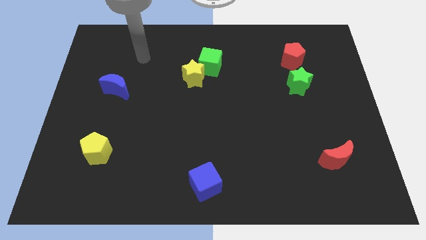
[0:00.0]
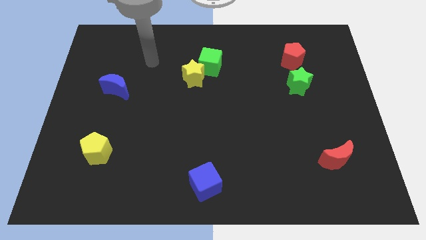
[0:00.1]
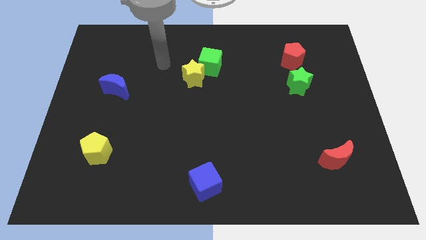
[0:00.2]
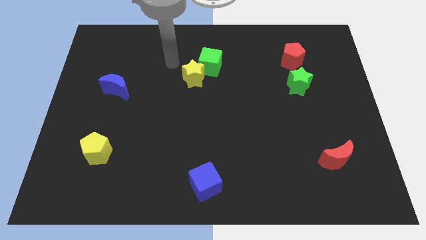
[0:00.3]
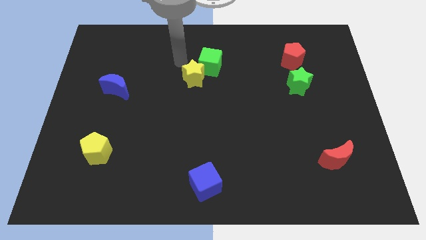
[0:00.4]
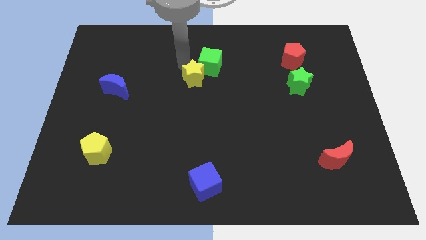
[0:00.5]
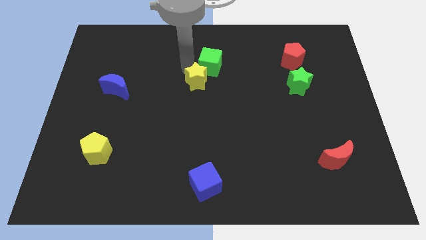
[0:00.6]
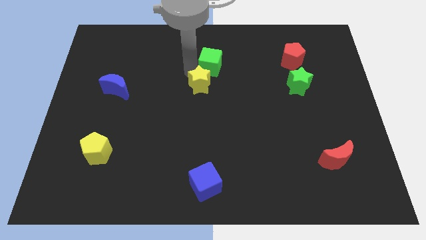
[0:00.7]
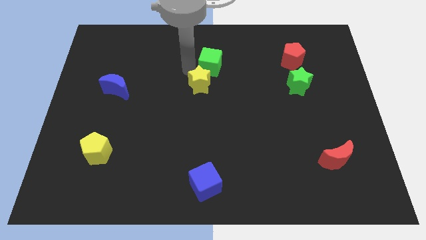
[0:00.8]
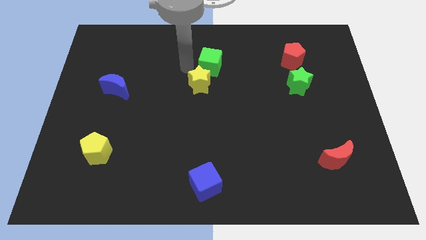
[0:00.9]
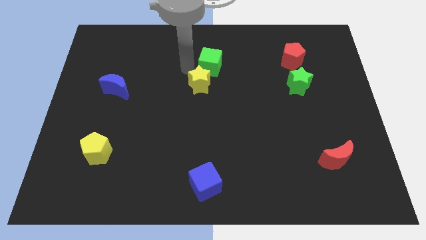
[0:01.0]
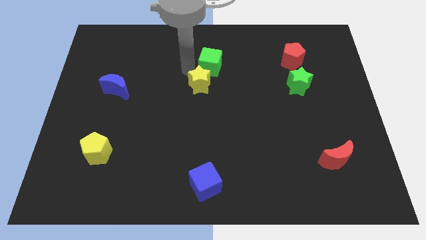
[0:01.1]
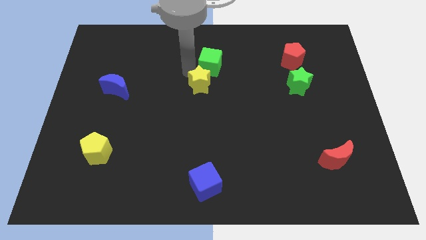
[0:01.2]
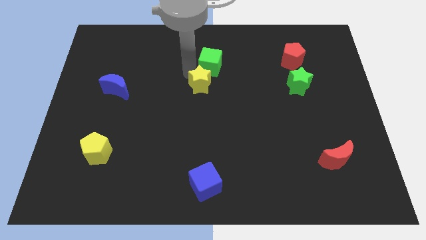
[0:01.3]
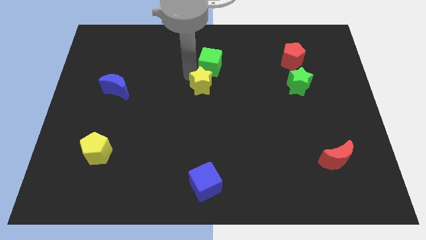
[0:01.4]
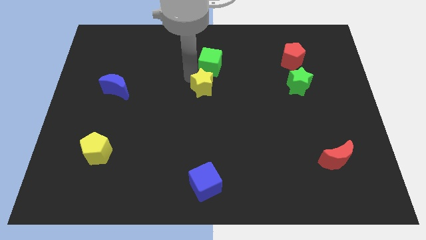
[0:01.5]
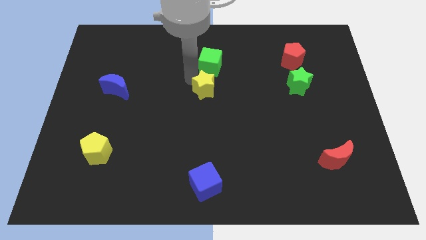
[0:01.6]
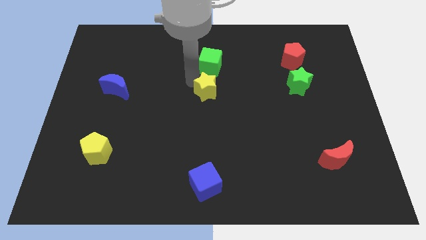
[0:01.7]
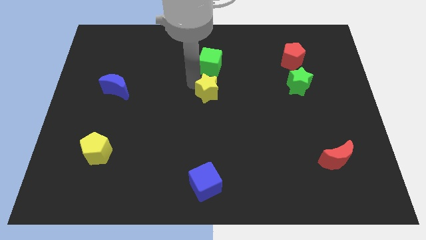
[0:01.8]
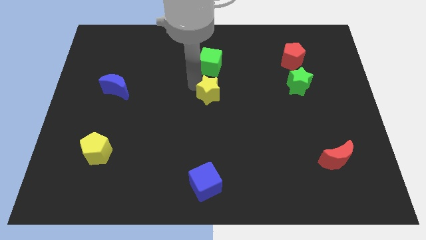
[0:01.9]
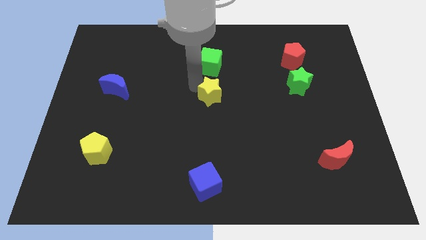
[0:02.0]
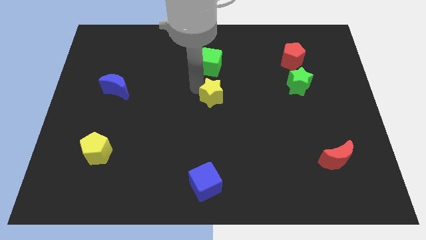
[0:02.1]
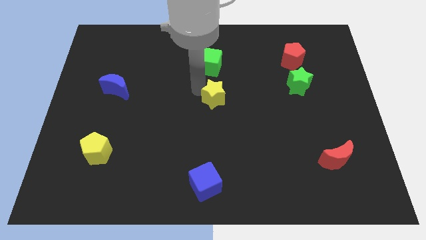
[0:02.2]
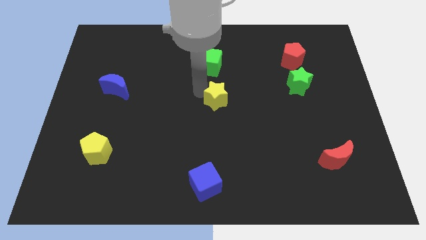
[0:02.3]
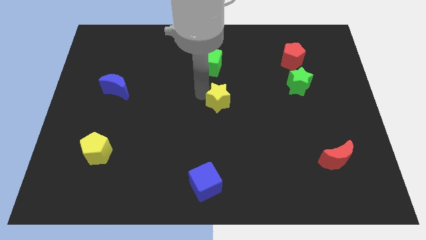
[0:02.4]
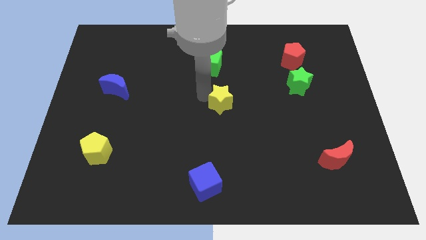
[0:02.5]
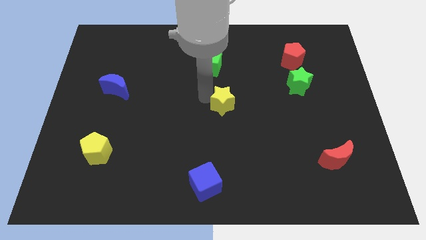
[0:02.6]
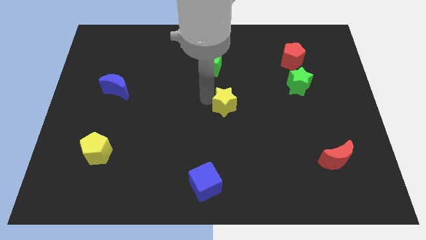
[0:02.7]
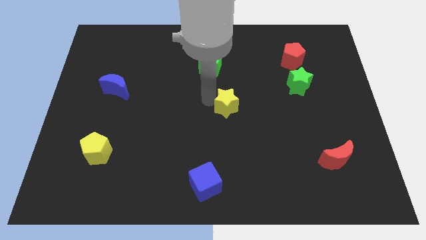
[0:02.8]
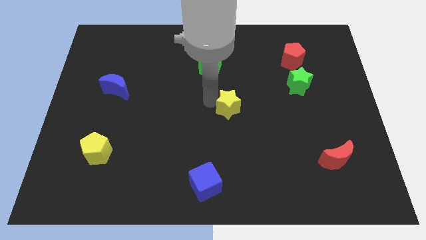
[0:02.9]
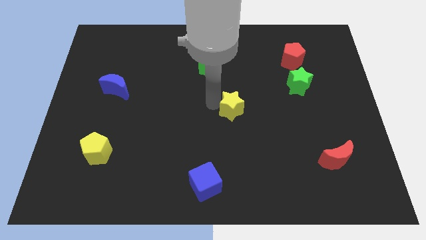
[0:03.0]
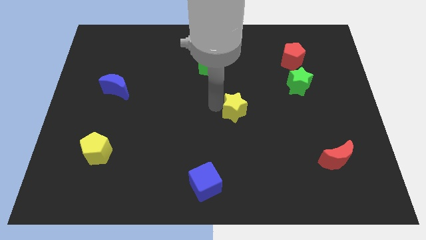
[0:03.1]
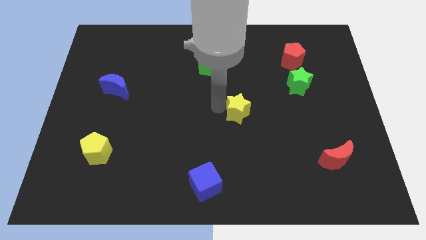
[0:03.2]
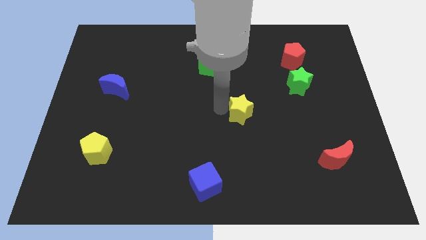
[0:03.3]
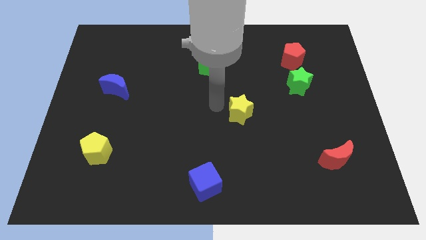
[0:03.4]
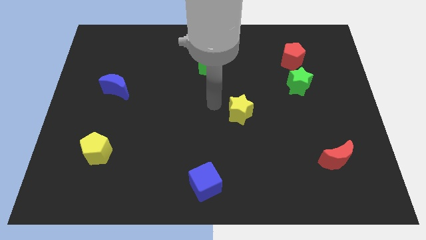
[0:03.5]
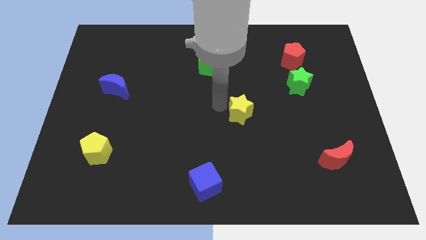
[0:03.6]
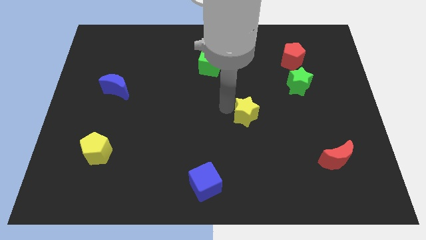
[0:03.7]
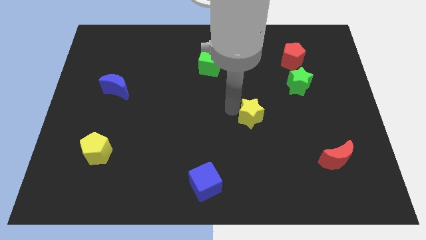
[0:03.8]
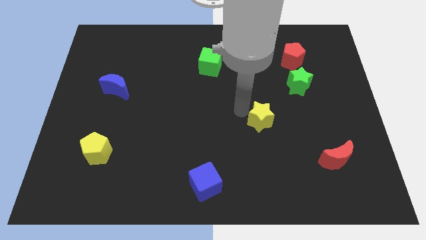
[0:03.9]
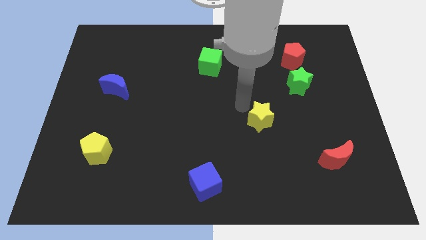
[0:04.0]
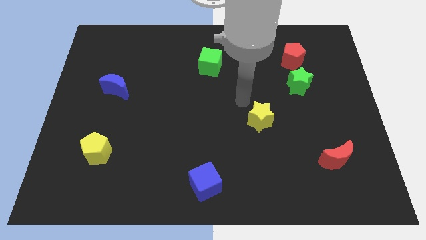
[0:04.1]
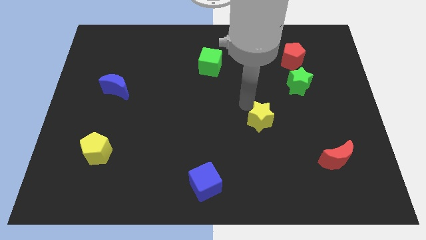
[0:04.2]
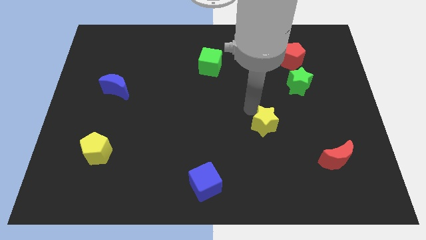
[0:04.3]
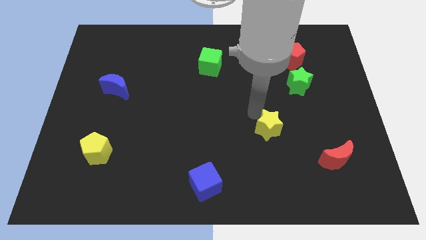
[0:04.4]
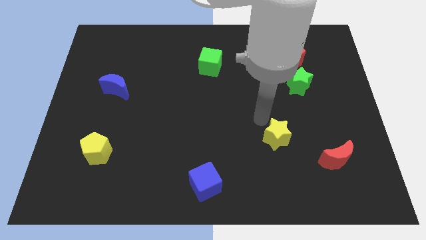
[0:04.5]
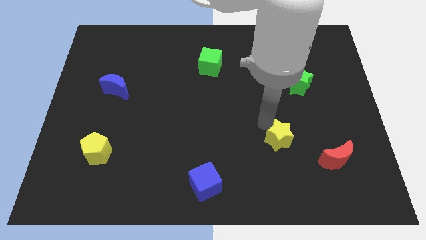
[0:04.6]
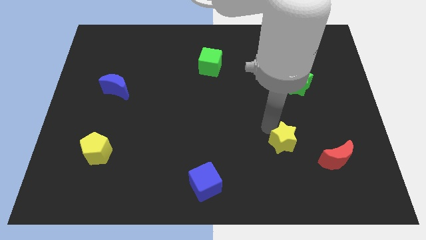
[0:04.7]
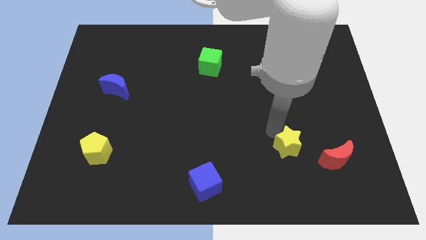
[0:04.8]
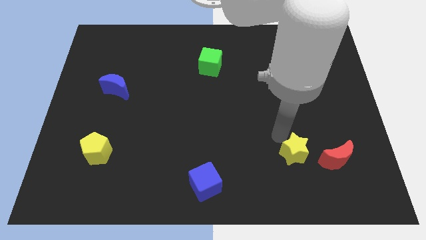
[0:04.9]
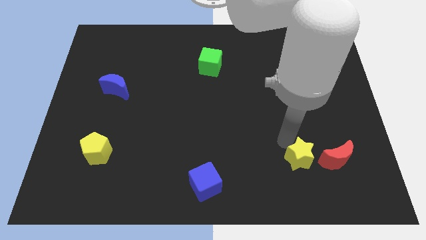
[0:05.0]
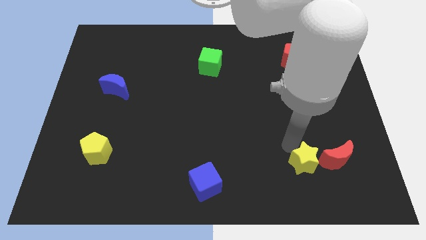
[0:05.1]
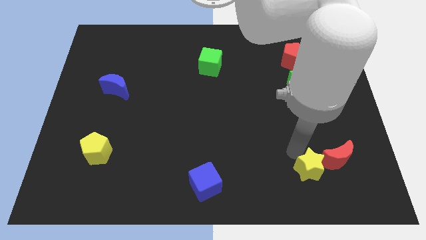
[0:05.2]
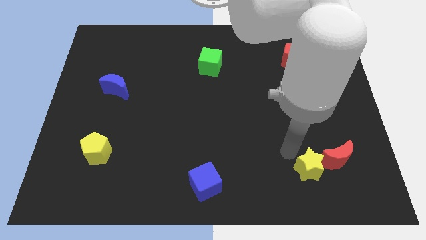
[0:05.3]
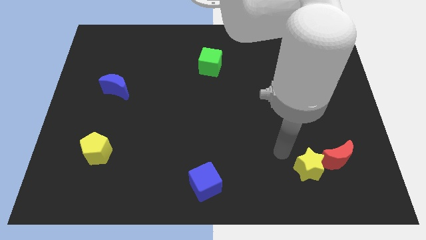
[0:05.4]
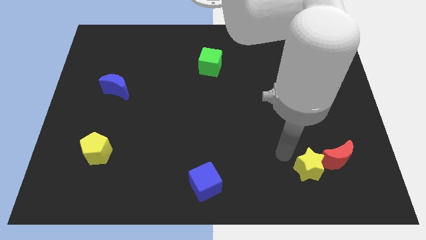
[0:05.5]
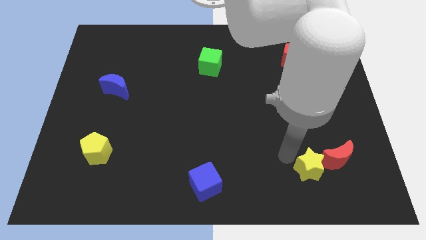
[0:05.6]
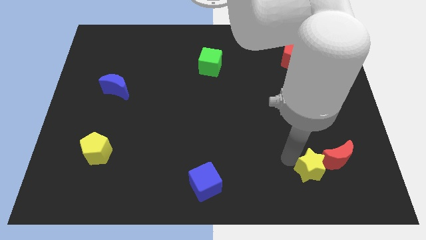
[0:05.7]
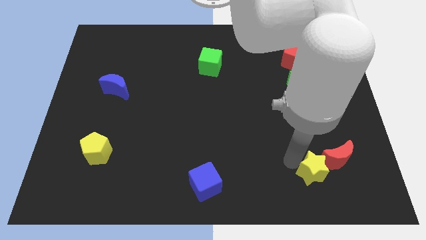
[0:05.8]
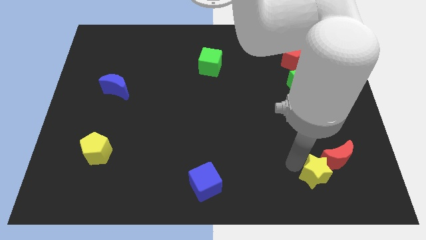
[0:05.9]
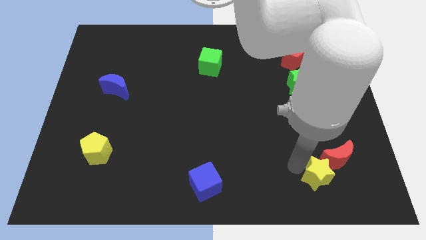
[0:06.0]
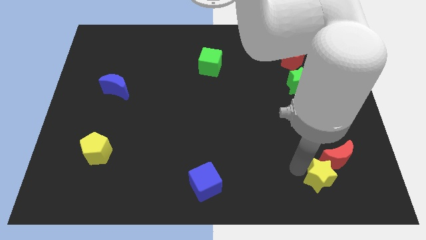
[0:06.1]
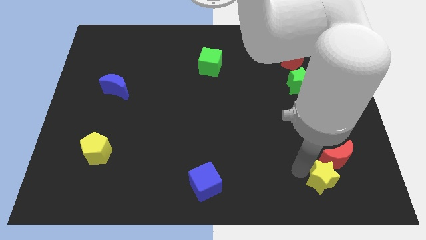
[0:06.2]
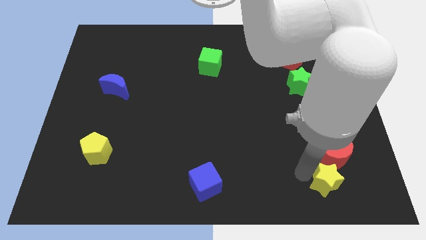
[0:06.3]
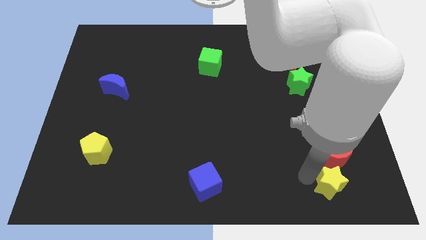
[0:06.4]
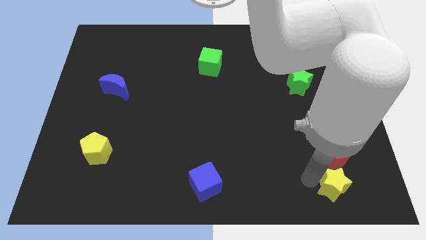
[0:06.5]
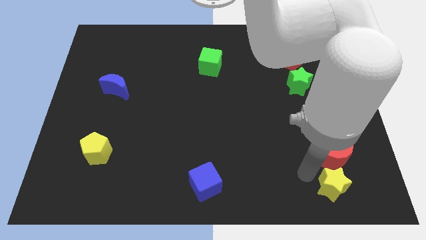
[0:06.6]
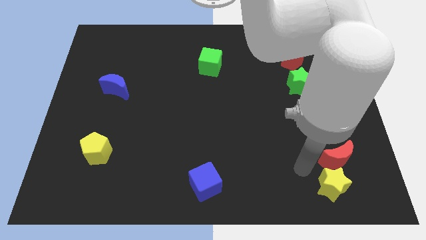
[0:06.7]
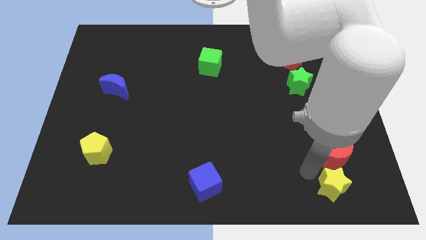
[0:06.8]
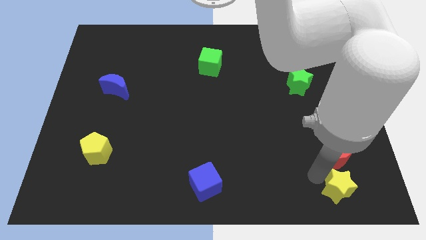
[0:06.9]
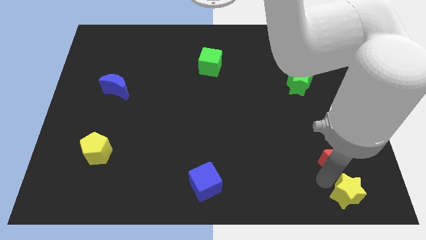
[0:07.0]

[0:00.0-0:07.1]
move the yellow star to the bottom right corner

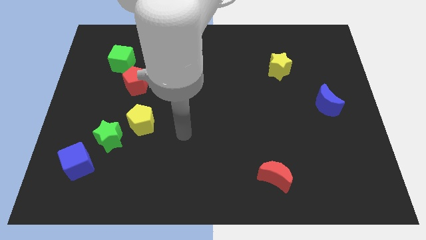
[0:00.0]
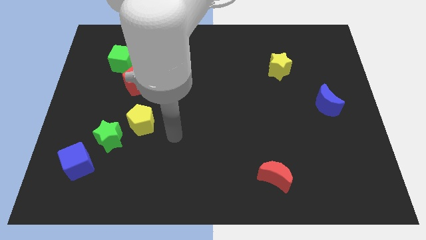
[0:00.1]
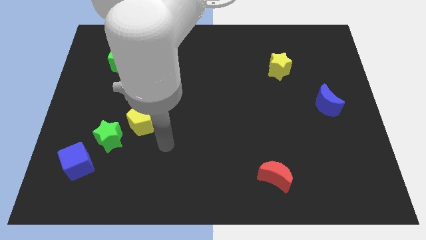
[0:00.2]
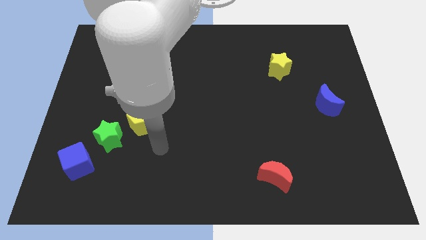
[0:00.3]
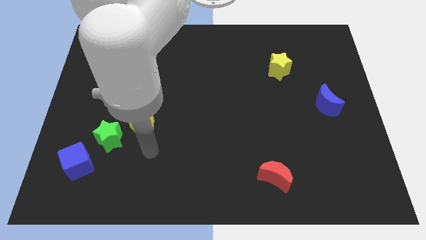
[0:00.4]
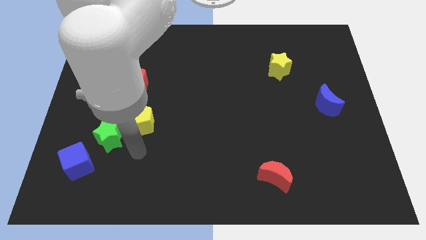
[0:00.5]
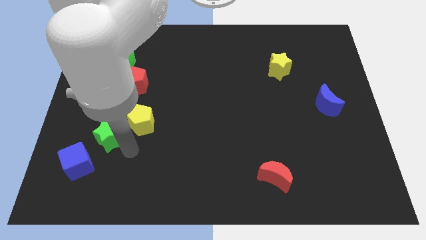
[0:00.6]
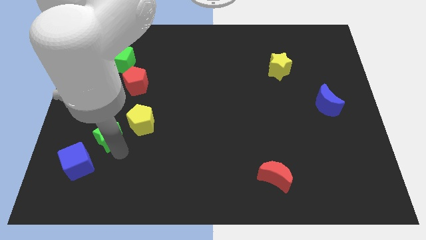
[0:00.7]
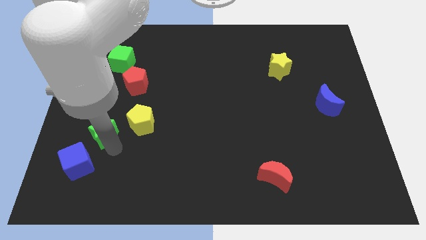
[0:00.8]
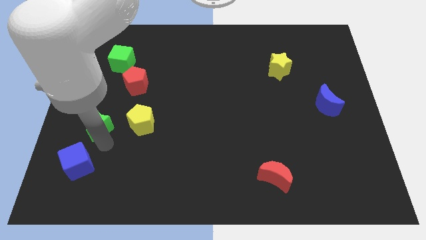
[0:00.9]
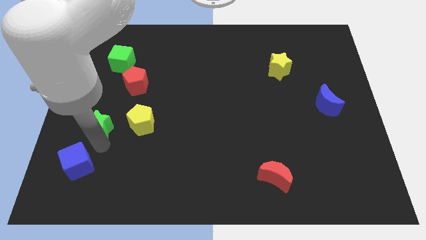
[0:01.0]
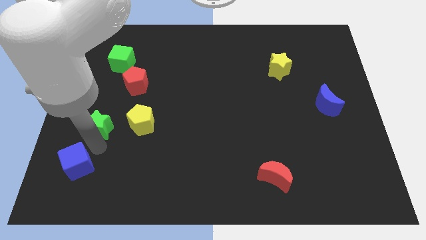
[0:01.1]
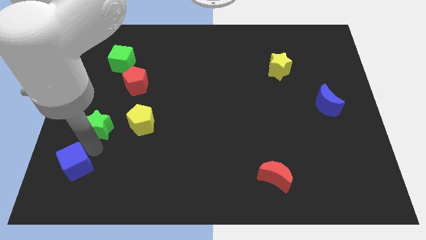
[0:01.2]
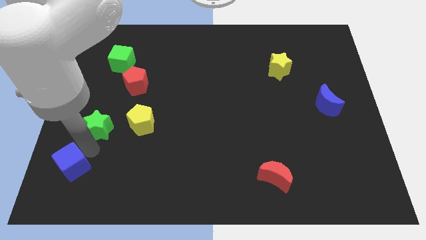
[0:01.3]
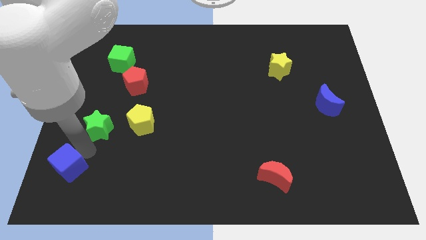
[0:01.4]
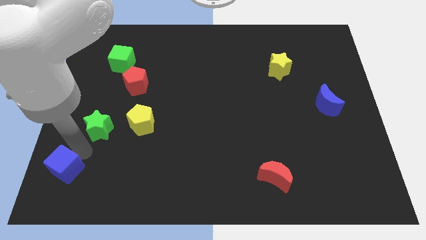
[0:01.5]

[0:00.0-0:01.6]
move the blue cube to the lower left corner
